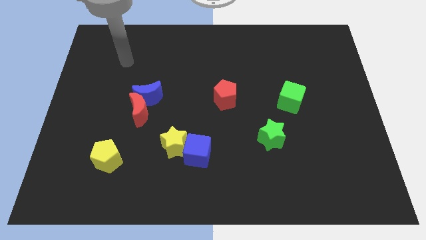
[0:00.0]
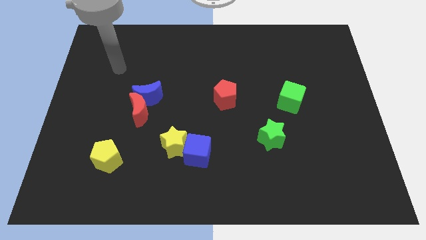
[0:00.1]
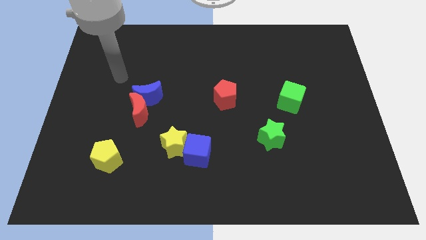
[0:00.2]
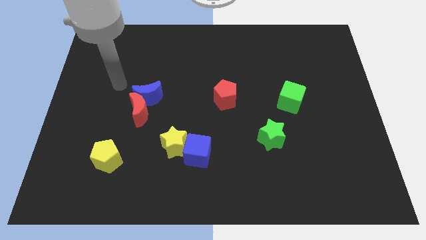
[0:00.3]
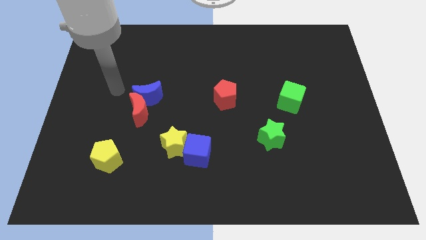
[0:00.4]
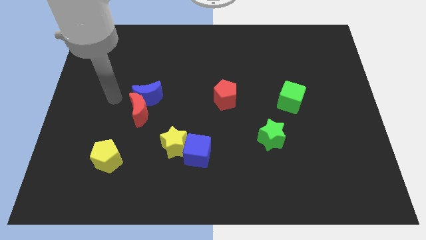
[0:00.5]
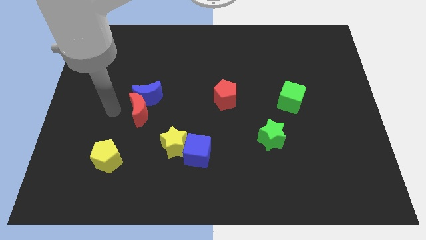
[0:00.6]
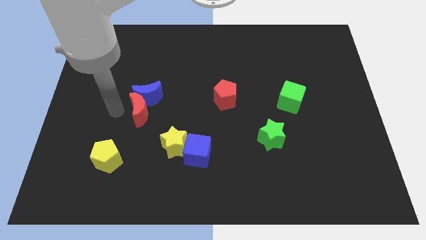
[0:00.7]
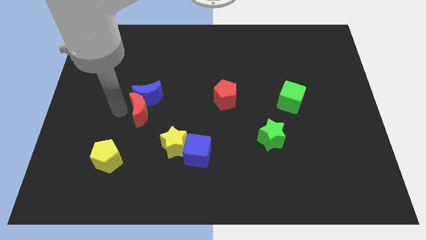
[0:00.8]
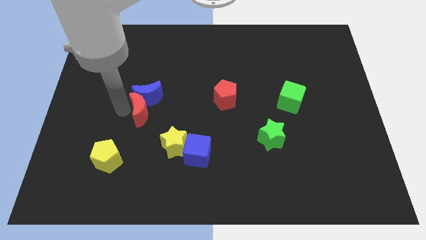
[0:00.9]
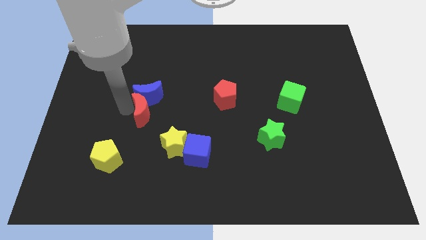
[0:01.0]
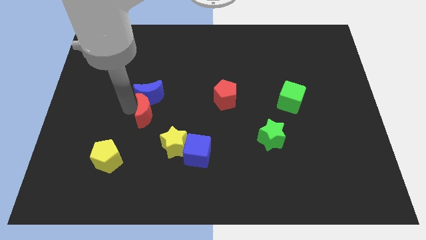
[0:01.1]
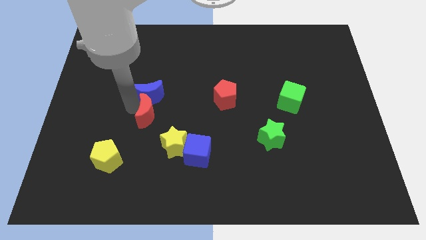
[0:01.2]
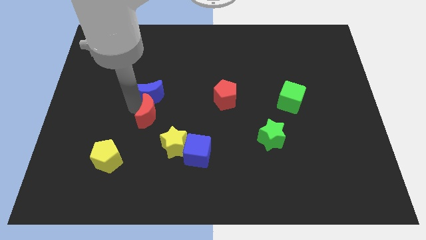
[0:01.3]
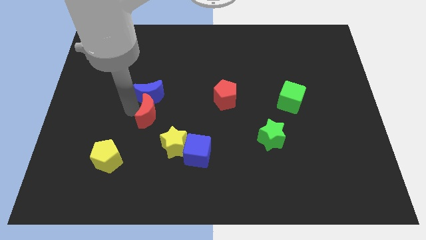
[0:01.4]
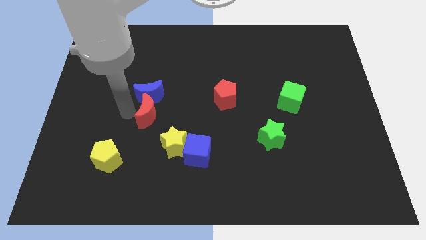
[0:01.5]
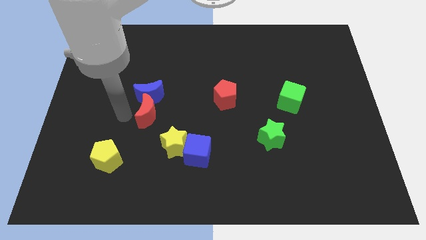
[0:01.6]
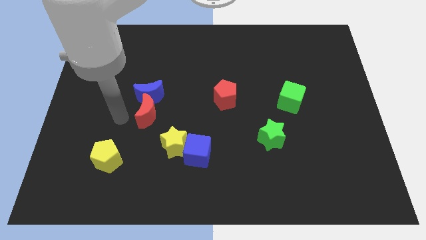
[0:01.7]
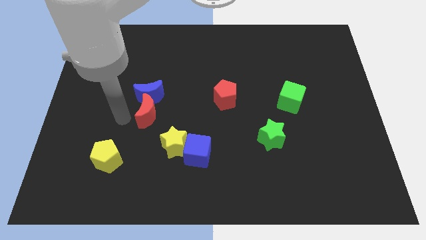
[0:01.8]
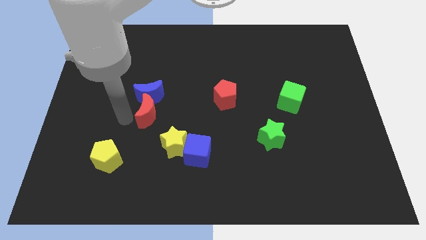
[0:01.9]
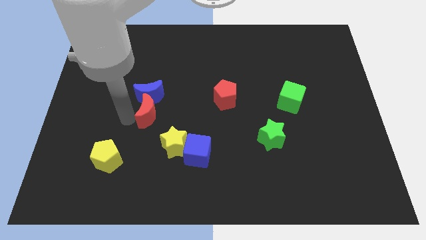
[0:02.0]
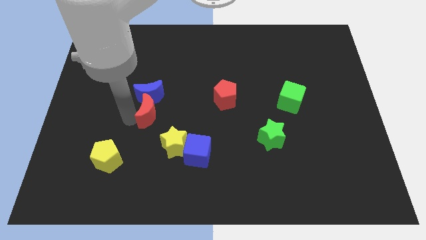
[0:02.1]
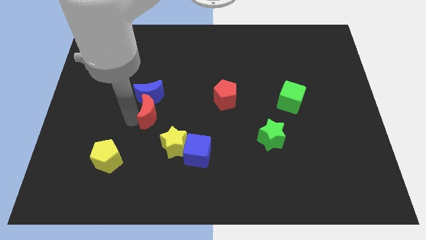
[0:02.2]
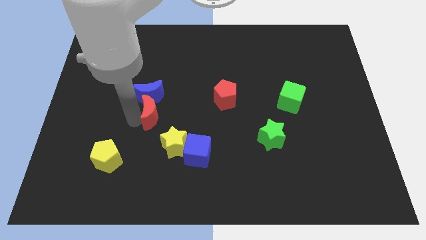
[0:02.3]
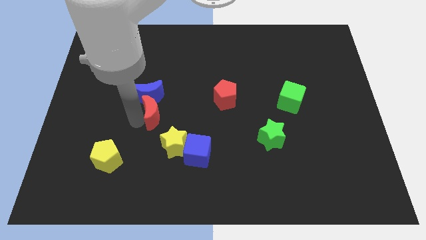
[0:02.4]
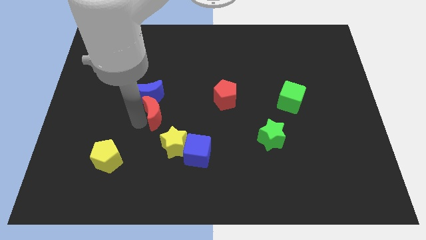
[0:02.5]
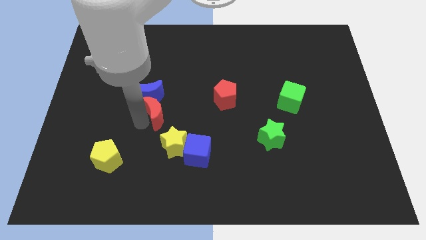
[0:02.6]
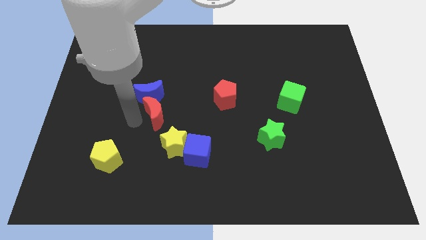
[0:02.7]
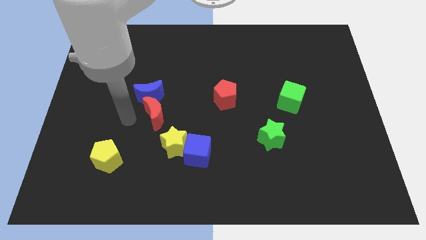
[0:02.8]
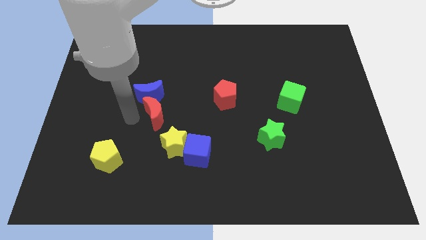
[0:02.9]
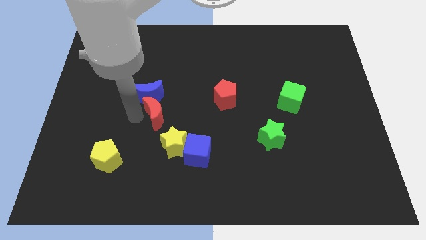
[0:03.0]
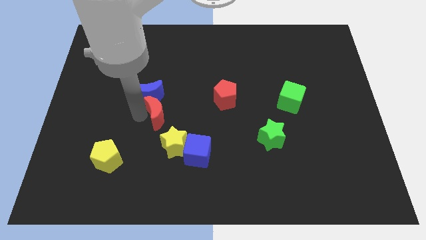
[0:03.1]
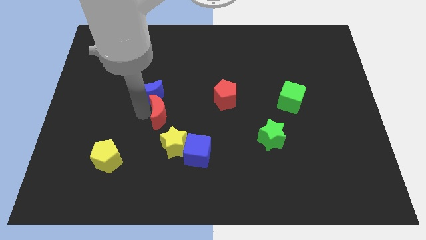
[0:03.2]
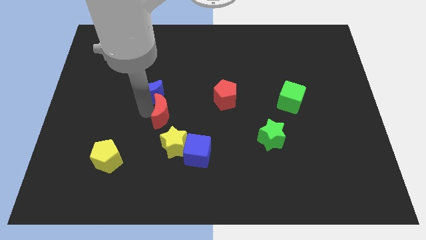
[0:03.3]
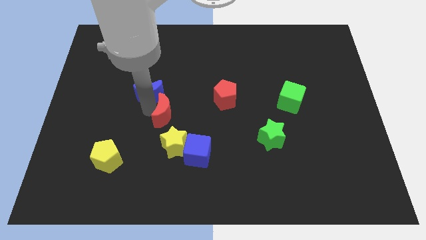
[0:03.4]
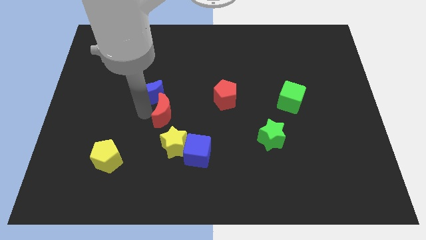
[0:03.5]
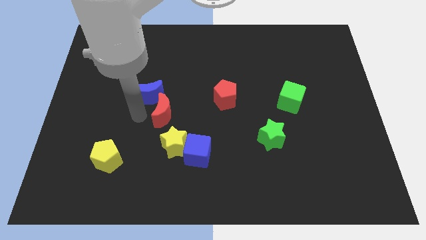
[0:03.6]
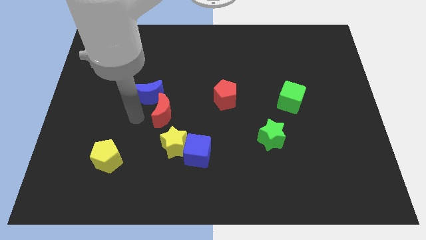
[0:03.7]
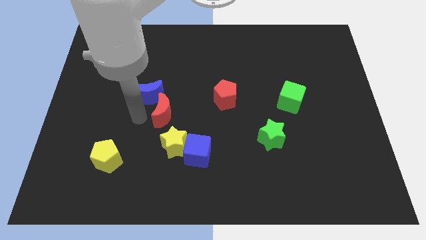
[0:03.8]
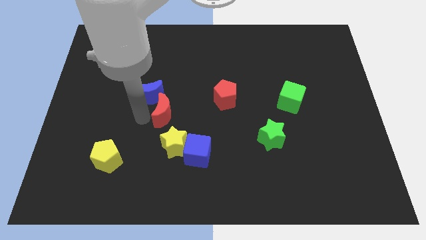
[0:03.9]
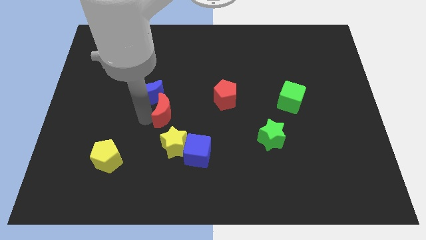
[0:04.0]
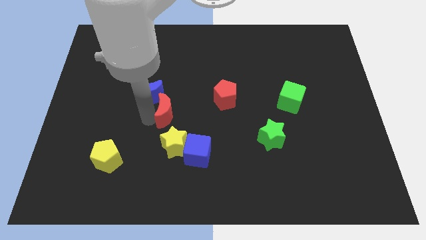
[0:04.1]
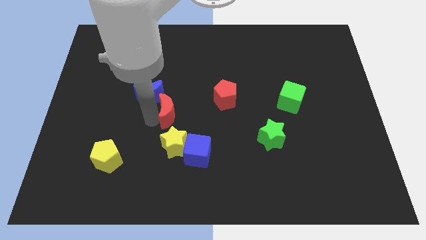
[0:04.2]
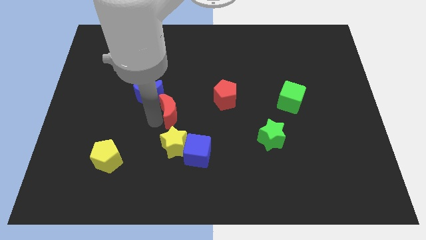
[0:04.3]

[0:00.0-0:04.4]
move the red moon somewhat right

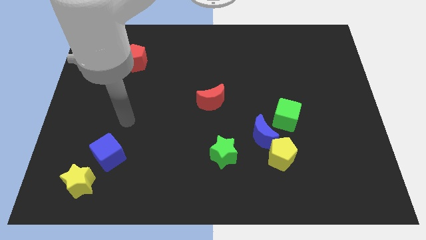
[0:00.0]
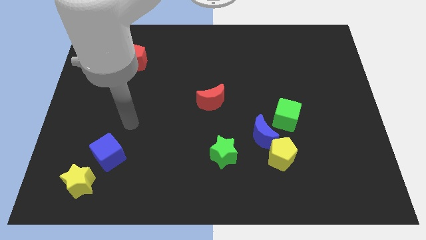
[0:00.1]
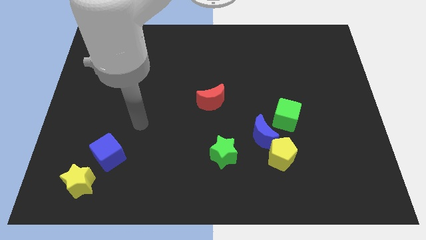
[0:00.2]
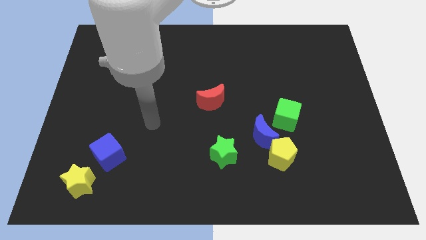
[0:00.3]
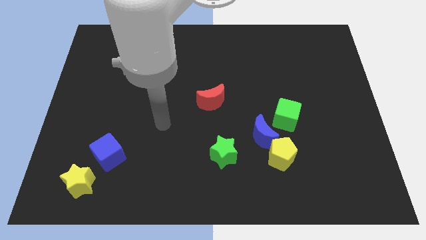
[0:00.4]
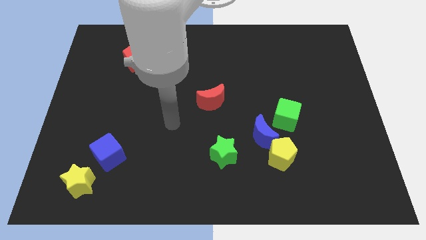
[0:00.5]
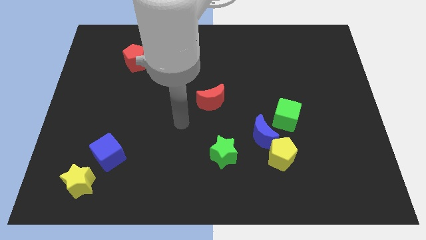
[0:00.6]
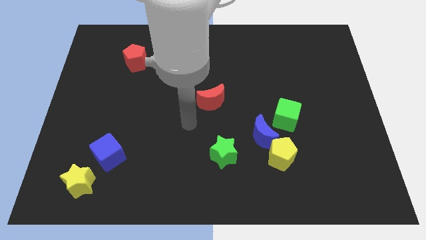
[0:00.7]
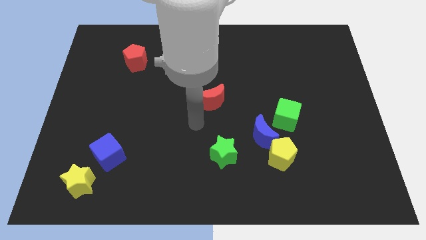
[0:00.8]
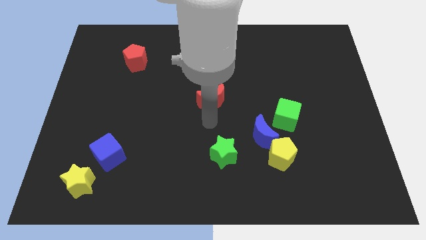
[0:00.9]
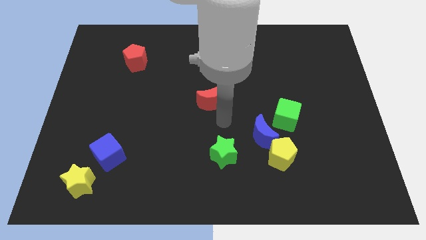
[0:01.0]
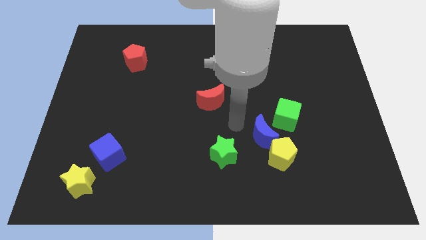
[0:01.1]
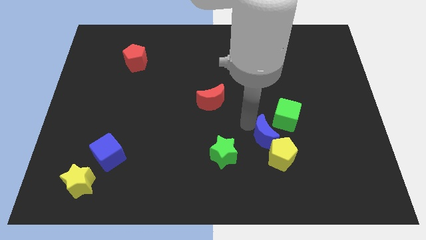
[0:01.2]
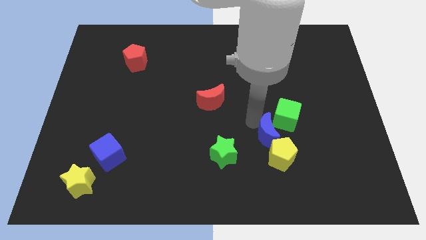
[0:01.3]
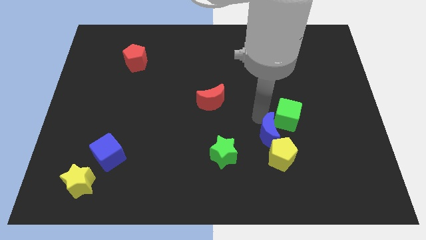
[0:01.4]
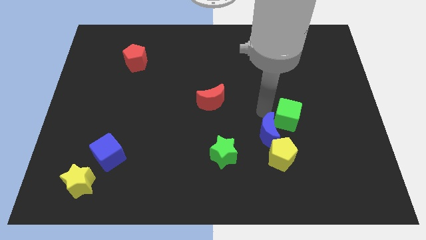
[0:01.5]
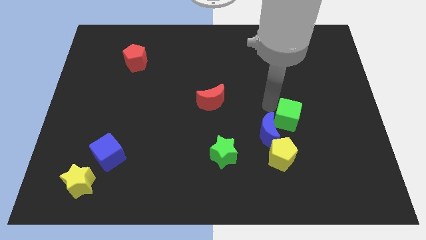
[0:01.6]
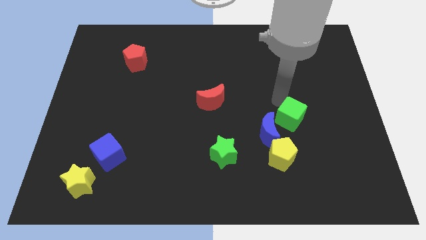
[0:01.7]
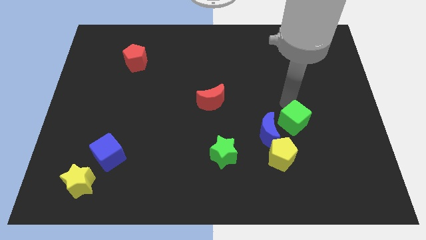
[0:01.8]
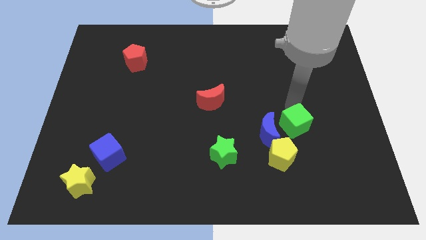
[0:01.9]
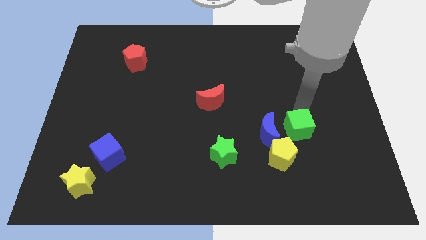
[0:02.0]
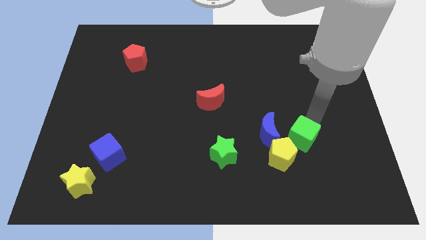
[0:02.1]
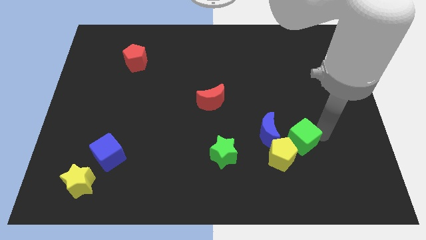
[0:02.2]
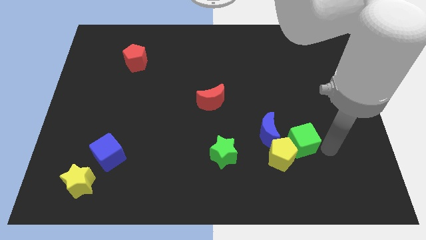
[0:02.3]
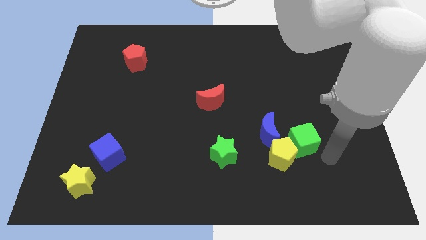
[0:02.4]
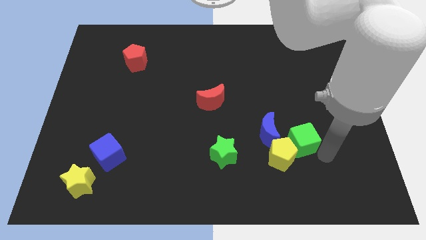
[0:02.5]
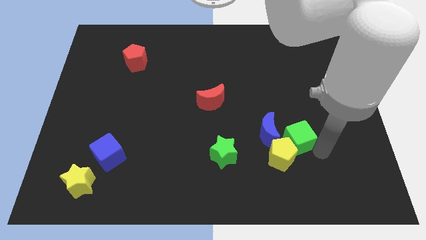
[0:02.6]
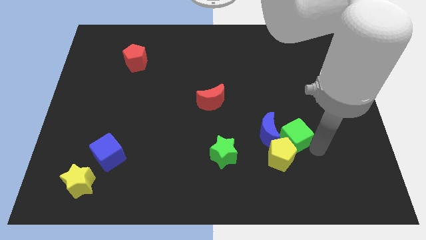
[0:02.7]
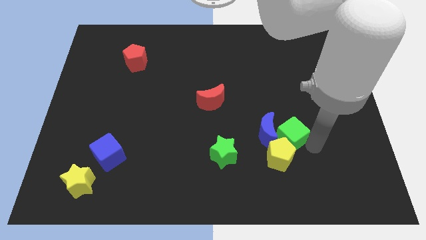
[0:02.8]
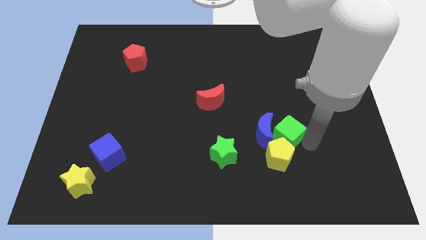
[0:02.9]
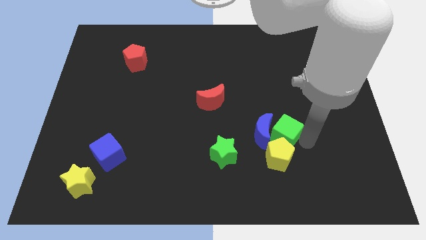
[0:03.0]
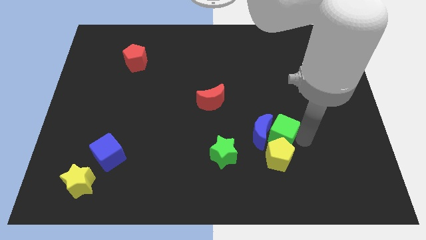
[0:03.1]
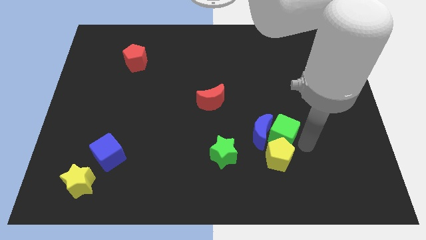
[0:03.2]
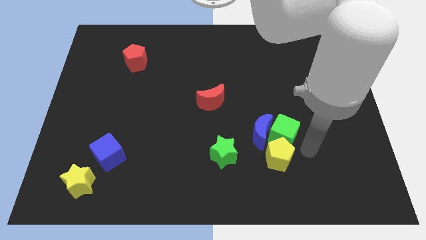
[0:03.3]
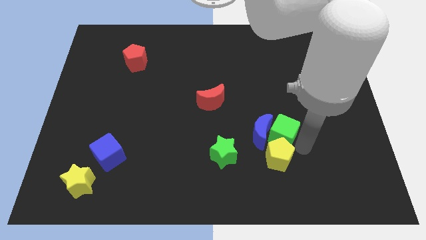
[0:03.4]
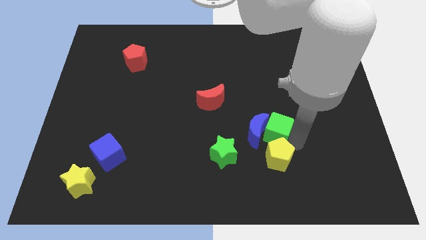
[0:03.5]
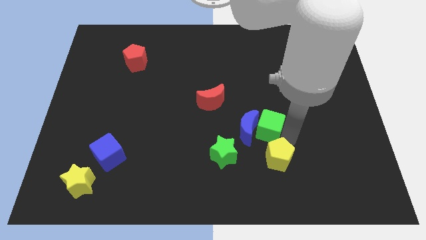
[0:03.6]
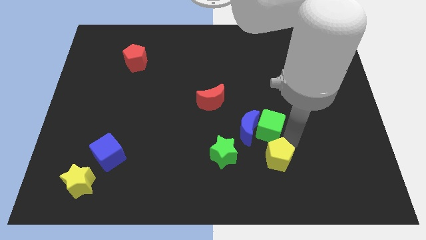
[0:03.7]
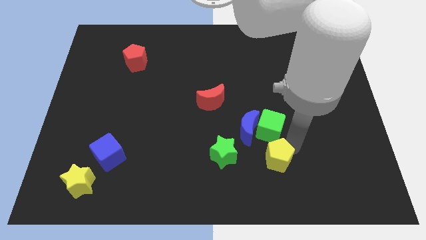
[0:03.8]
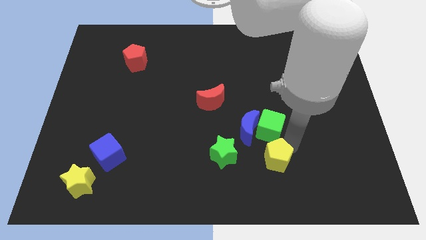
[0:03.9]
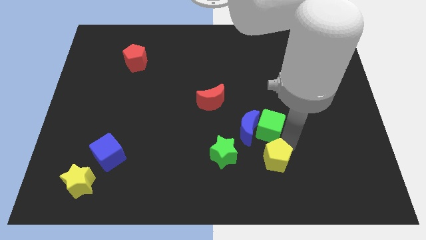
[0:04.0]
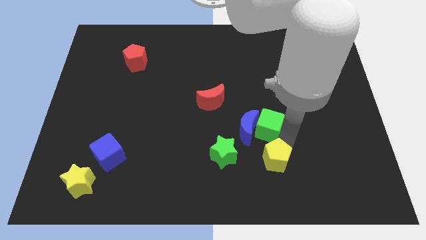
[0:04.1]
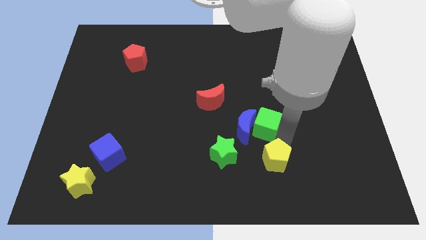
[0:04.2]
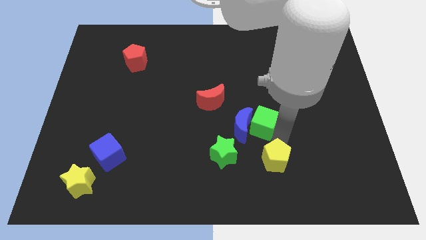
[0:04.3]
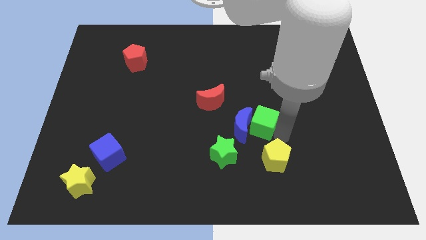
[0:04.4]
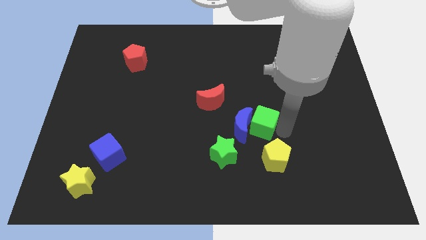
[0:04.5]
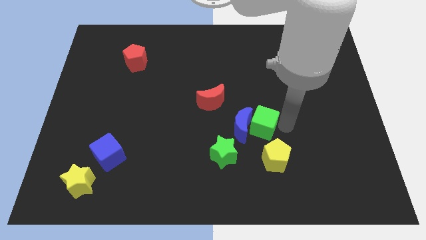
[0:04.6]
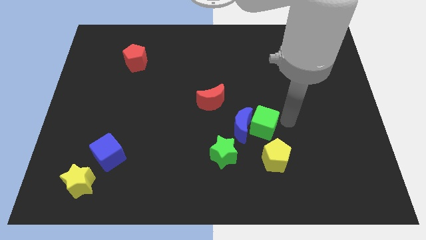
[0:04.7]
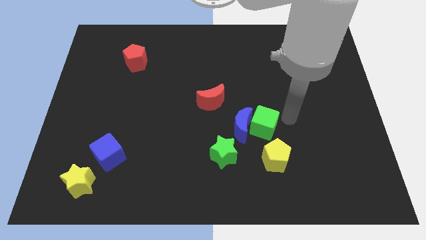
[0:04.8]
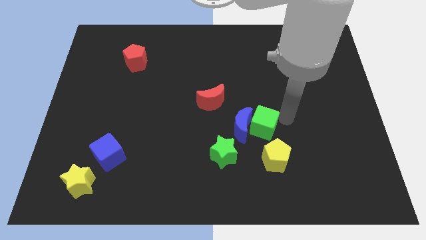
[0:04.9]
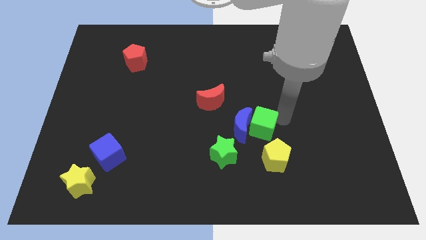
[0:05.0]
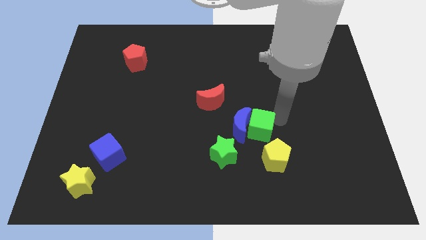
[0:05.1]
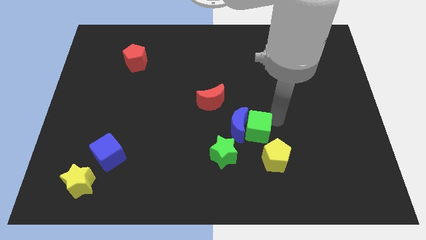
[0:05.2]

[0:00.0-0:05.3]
slide the green cube somewhat diagonally down and to the left
